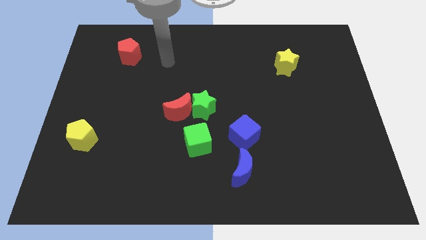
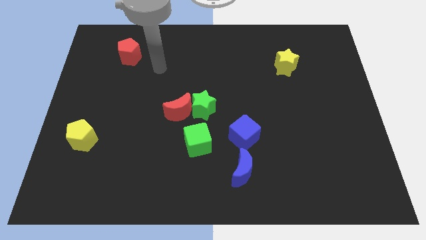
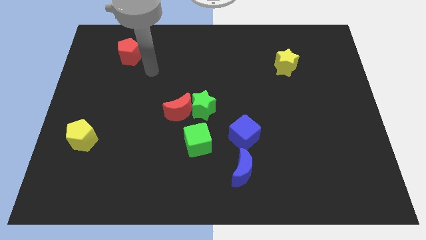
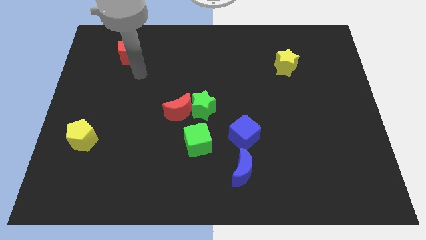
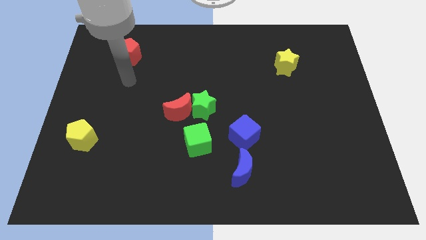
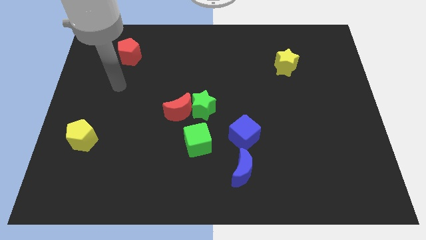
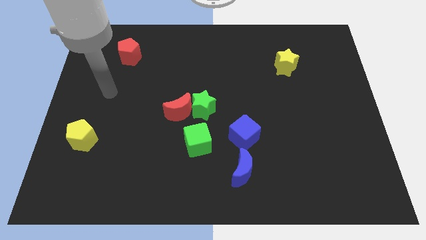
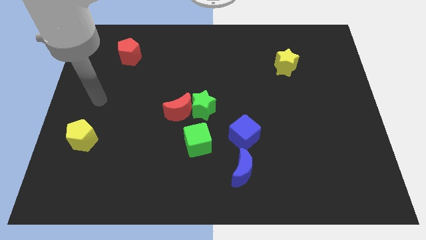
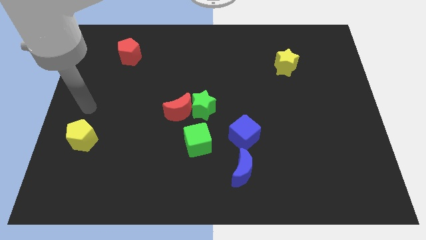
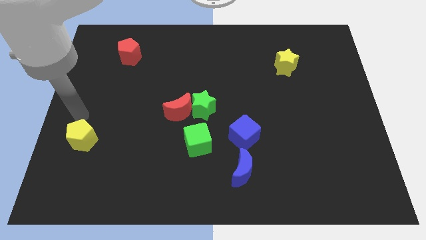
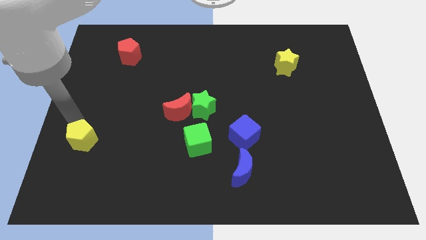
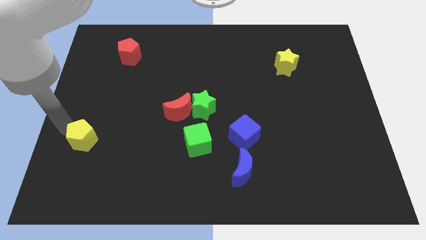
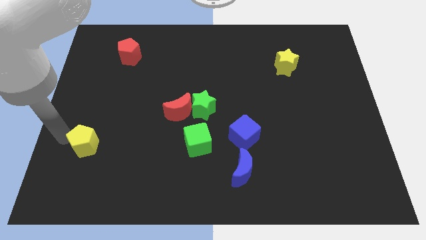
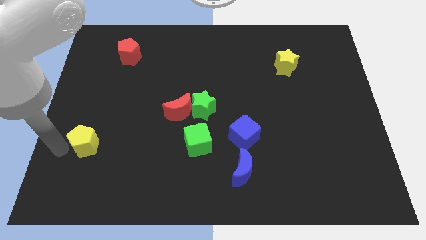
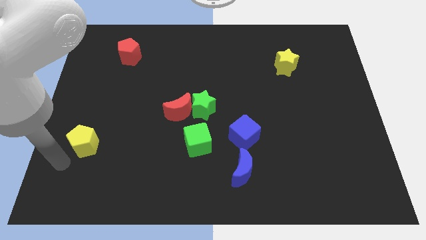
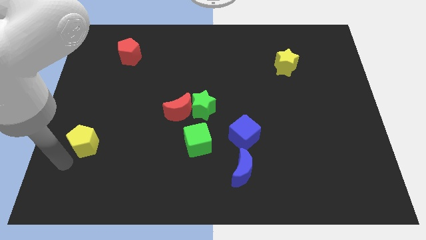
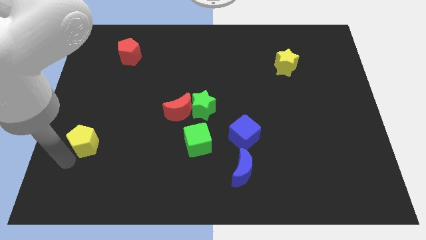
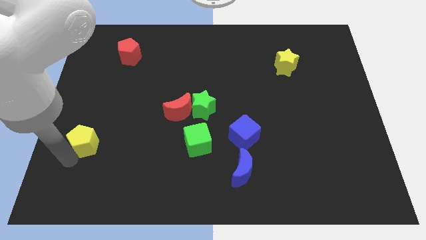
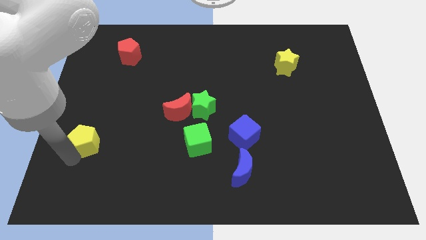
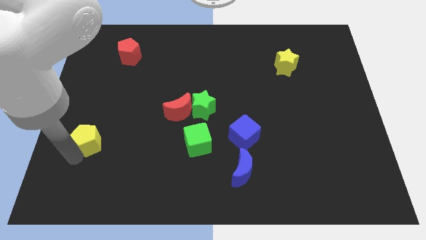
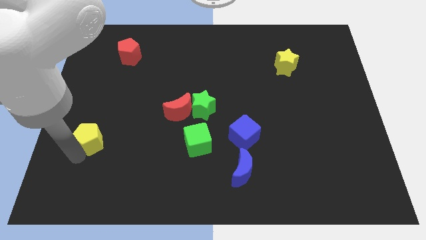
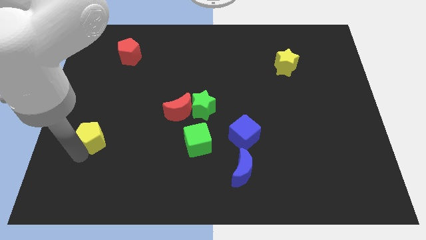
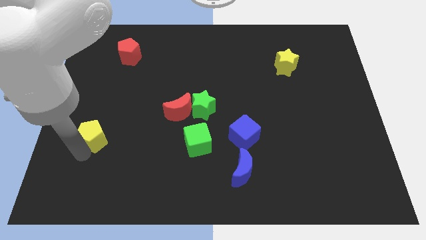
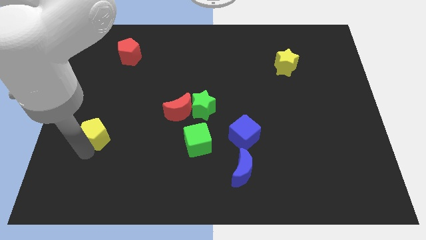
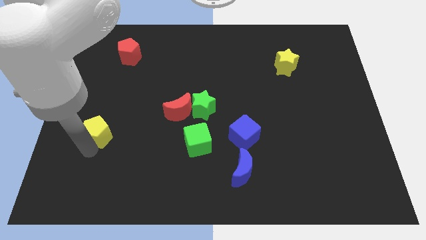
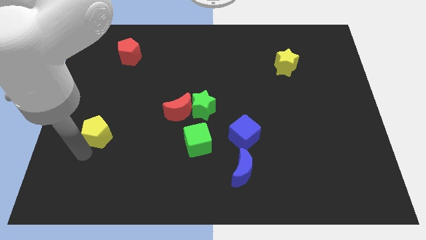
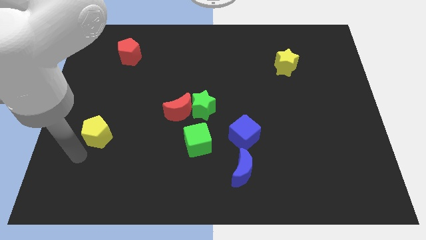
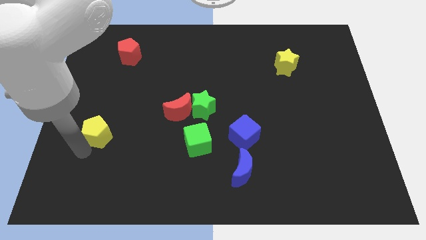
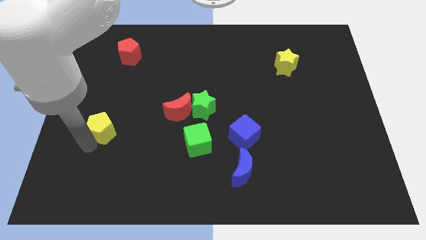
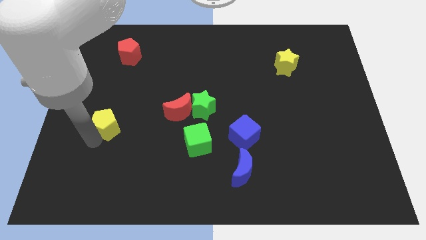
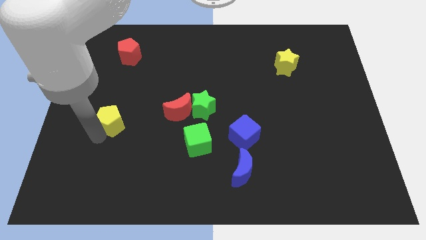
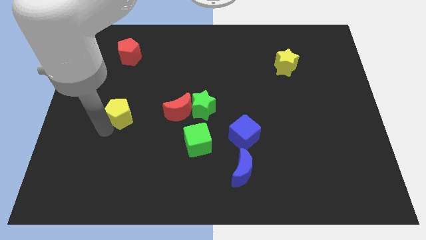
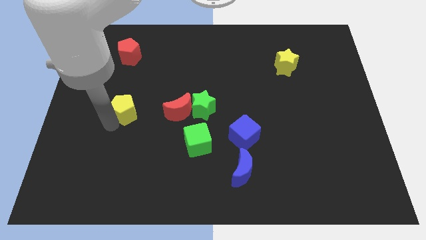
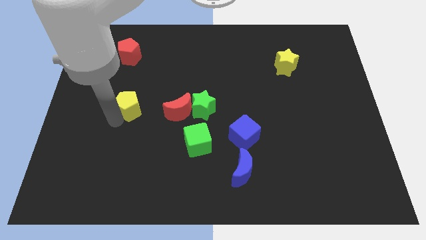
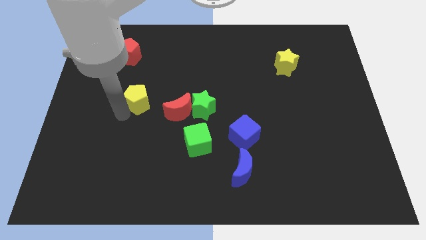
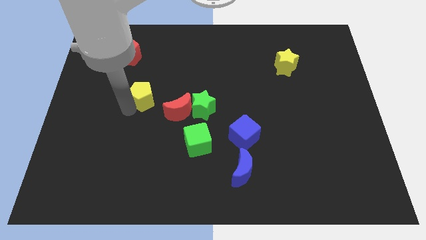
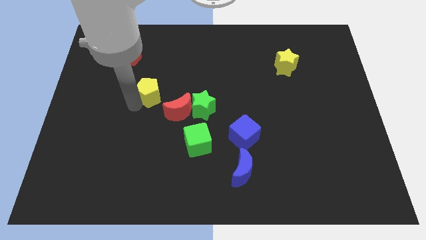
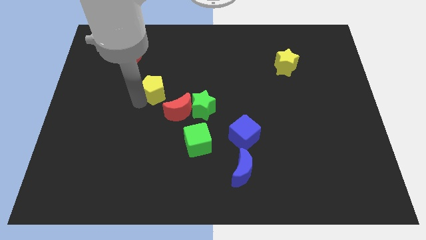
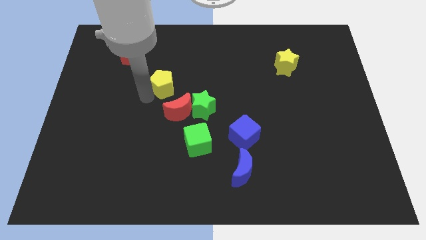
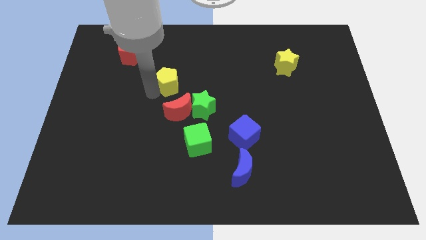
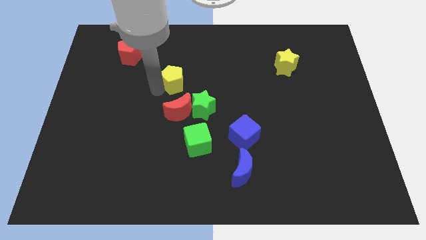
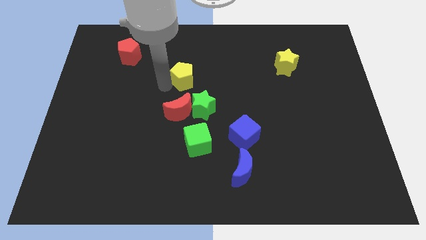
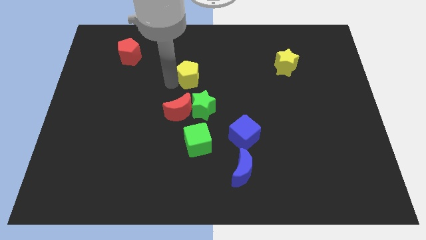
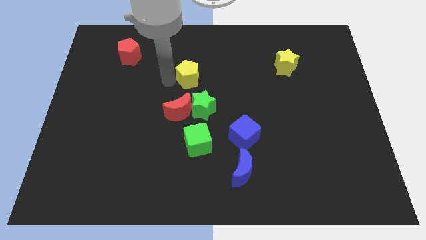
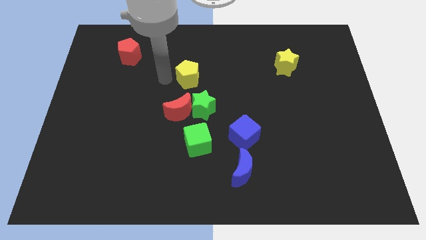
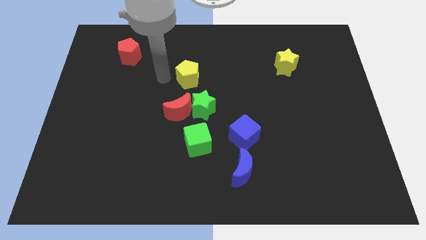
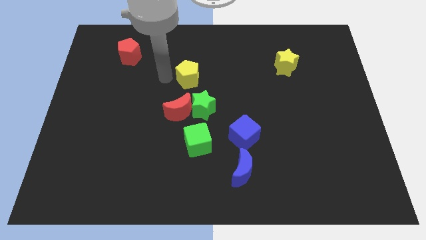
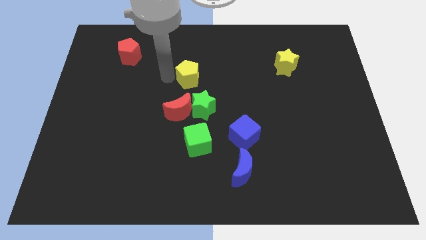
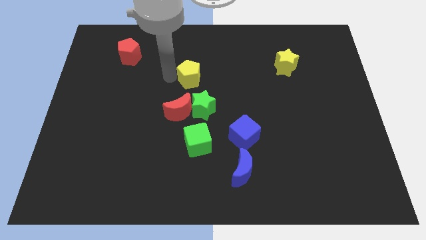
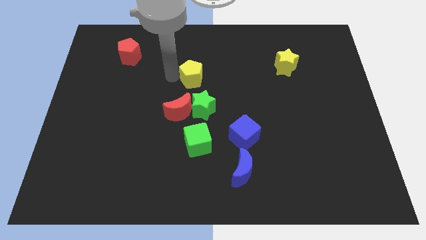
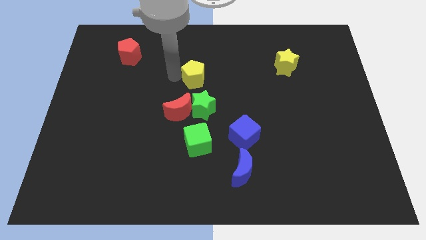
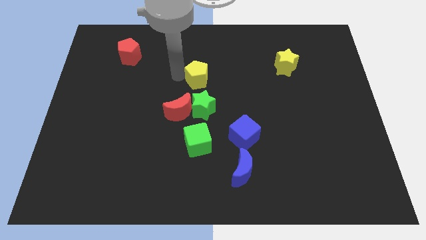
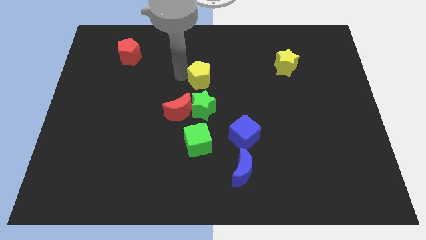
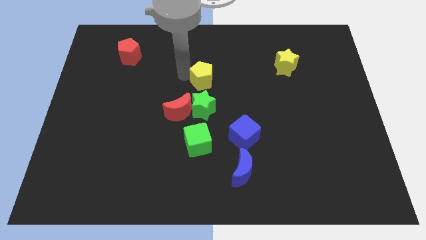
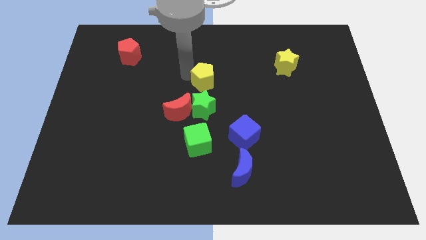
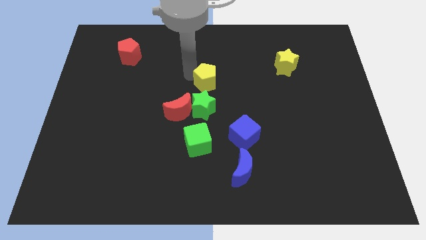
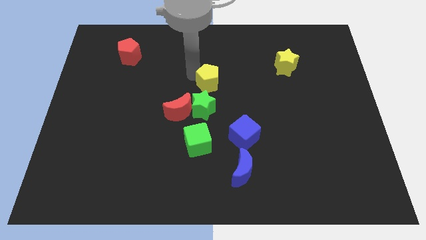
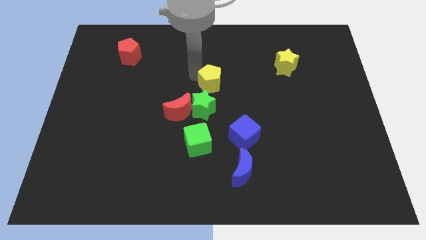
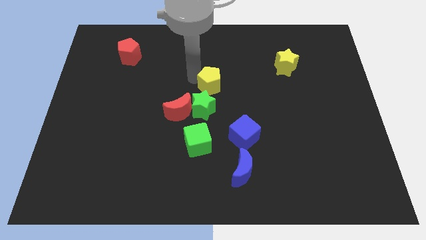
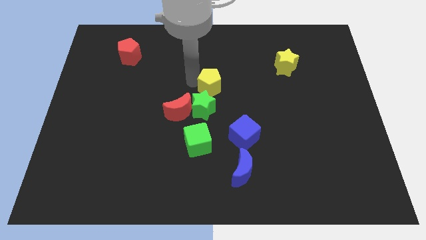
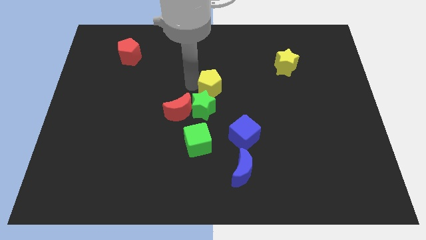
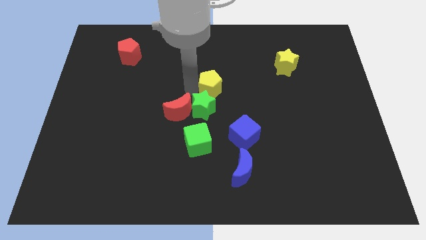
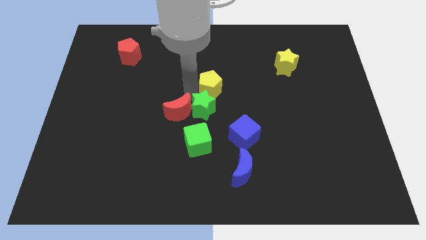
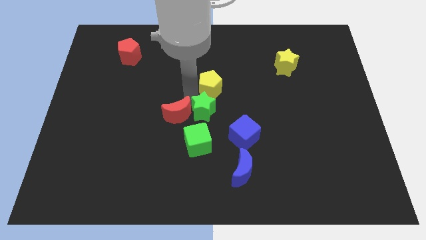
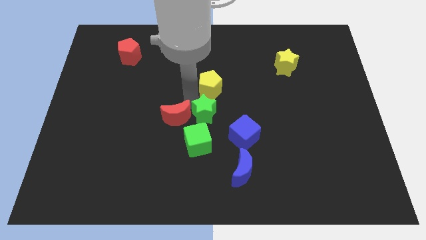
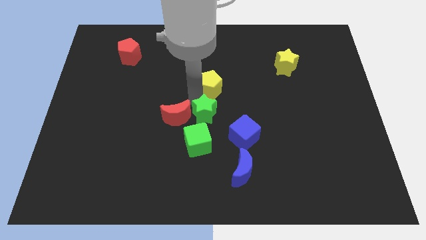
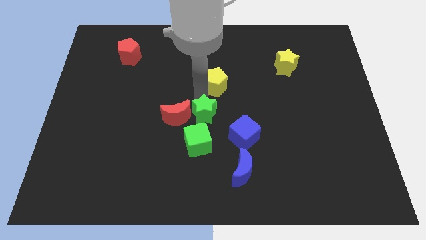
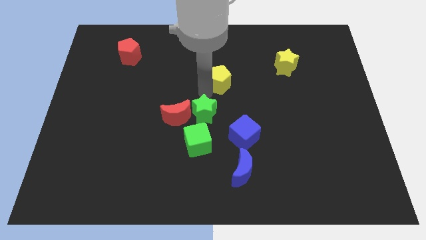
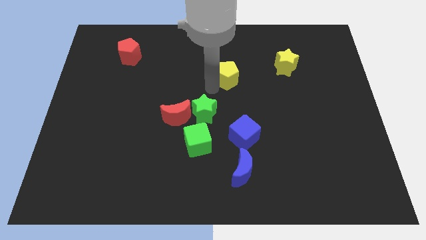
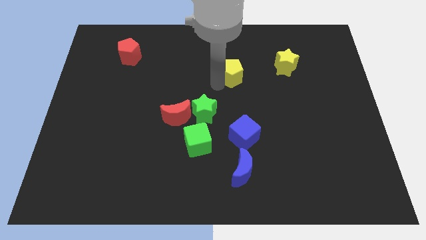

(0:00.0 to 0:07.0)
push the yellow pentagon left of the yellow star
